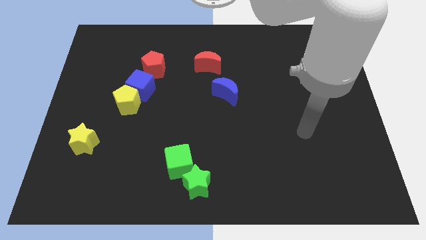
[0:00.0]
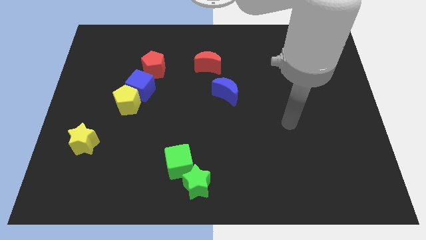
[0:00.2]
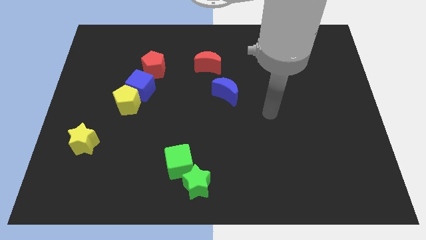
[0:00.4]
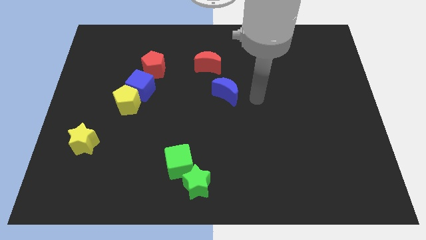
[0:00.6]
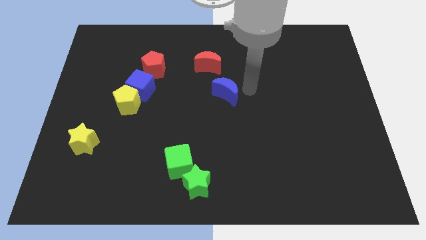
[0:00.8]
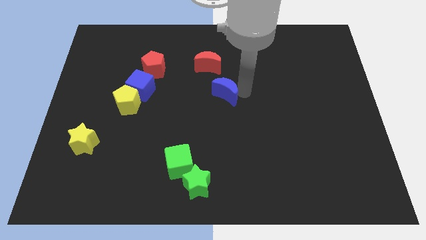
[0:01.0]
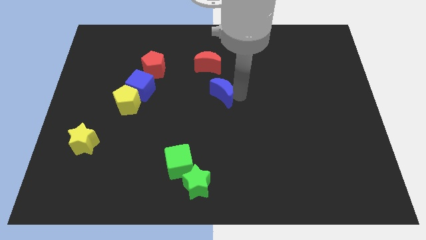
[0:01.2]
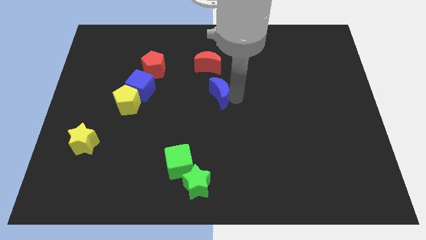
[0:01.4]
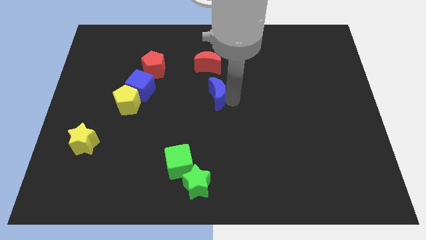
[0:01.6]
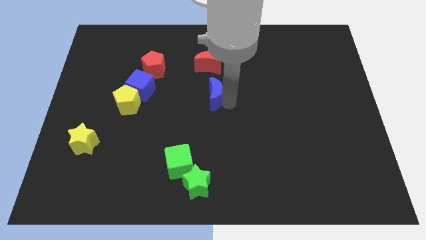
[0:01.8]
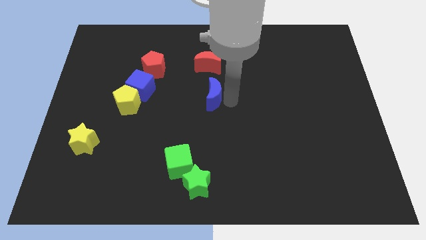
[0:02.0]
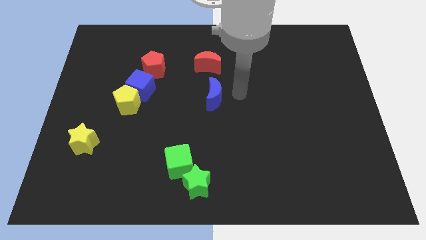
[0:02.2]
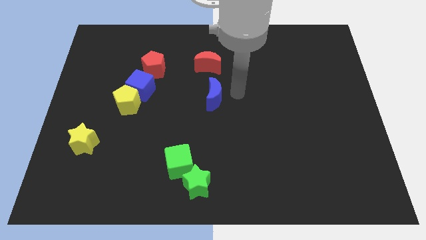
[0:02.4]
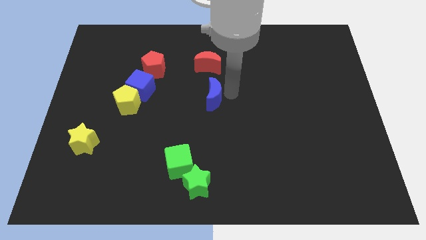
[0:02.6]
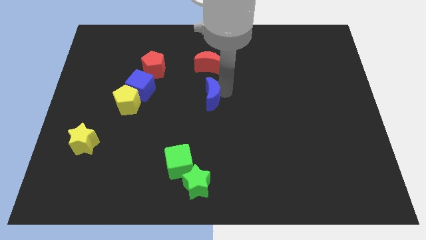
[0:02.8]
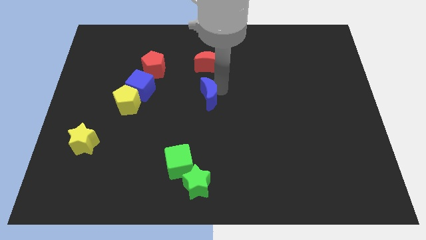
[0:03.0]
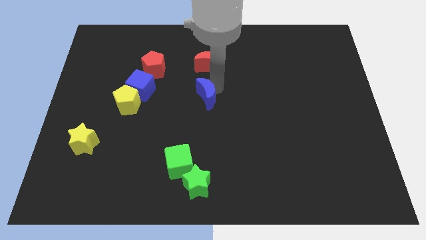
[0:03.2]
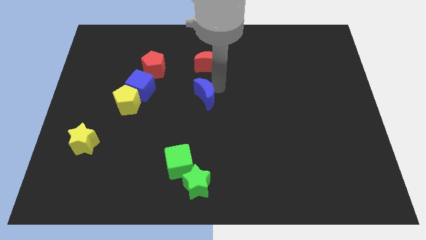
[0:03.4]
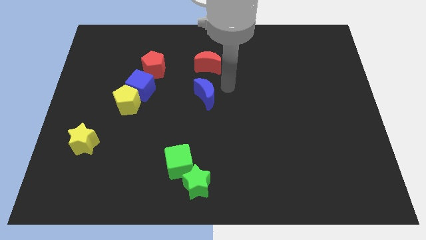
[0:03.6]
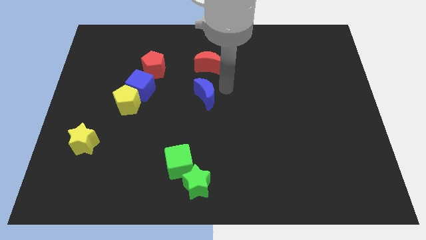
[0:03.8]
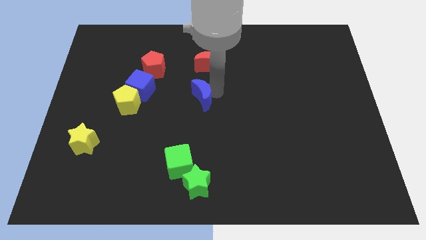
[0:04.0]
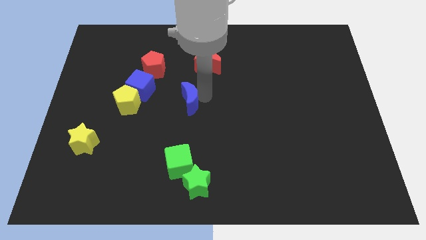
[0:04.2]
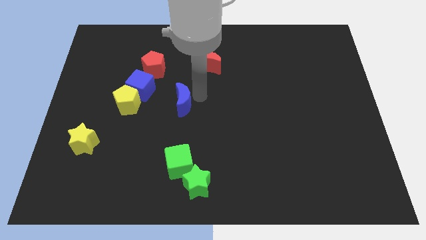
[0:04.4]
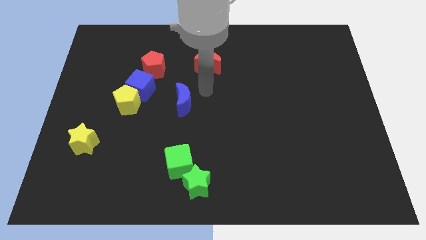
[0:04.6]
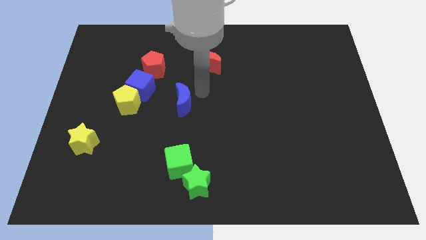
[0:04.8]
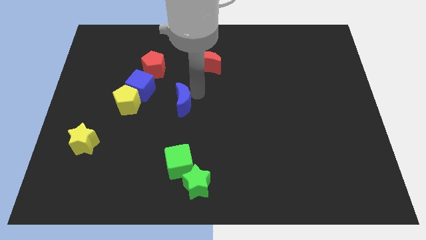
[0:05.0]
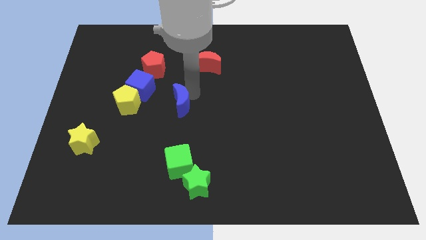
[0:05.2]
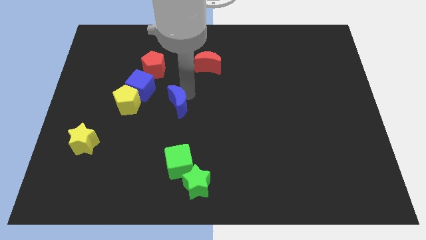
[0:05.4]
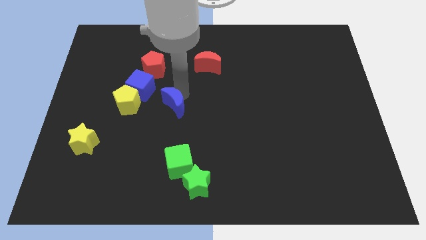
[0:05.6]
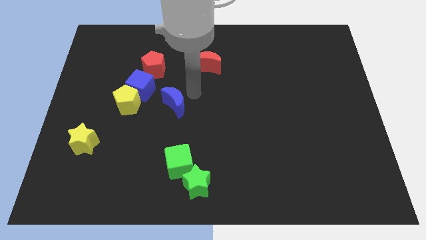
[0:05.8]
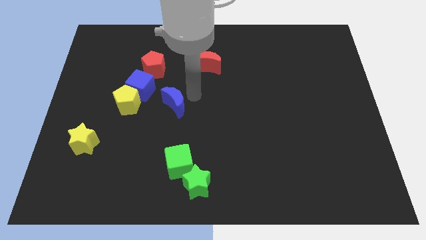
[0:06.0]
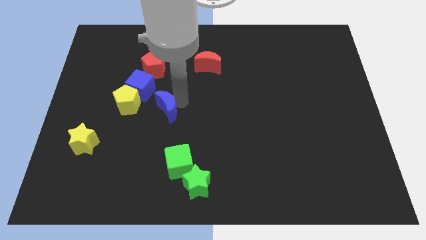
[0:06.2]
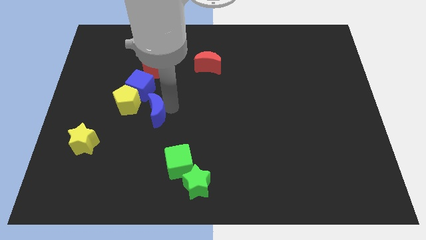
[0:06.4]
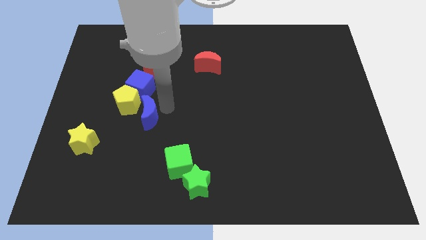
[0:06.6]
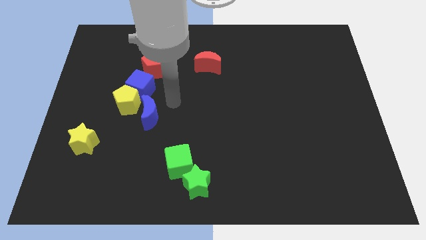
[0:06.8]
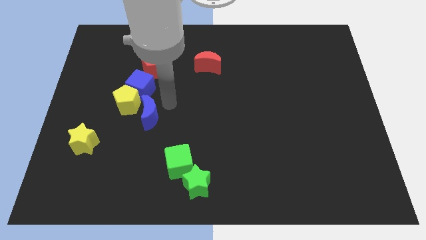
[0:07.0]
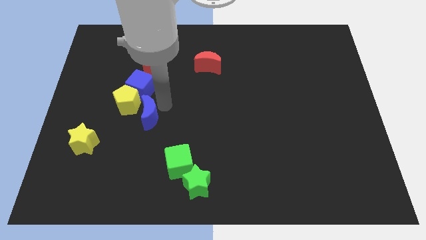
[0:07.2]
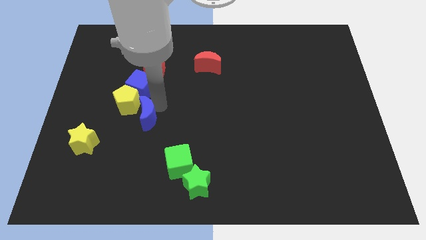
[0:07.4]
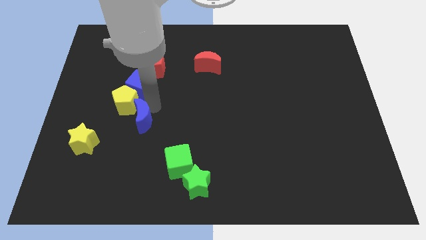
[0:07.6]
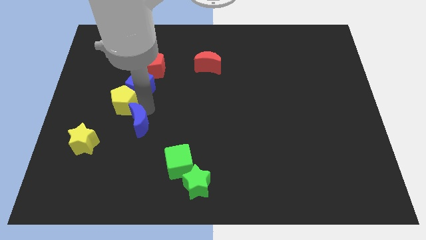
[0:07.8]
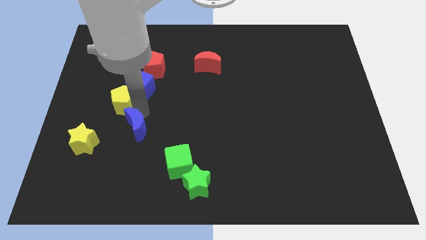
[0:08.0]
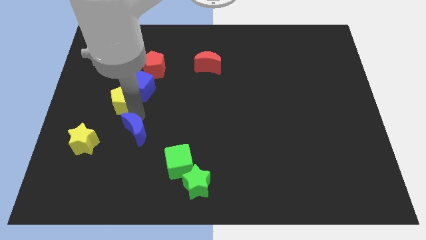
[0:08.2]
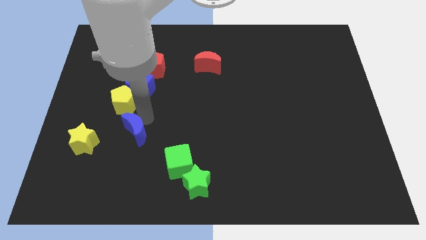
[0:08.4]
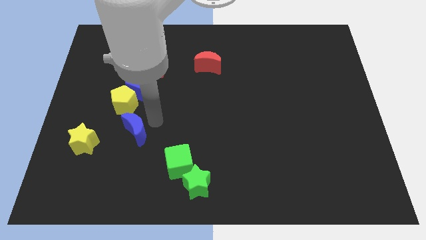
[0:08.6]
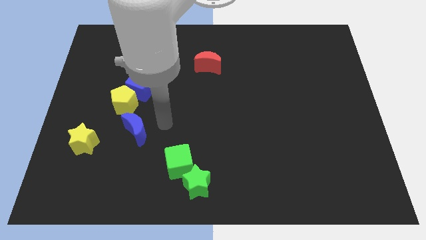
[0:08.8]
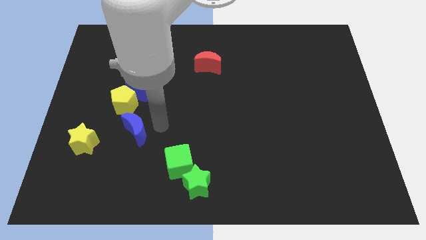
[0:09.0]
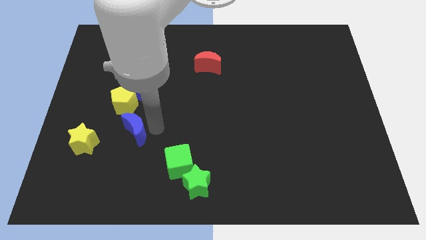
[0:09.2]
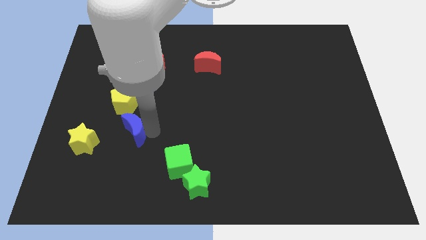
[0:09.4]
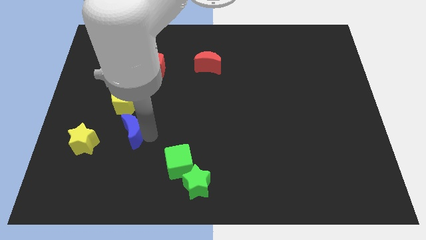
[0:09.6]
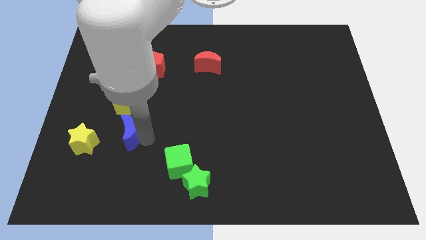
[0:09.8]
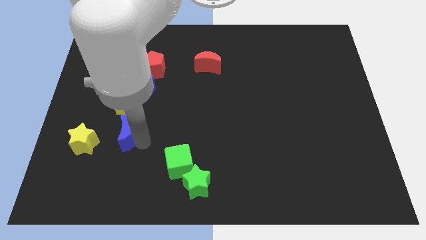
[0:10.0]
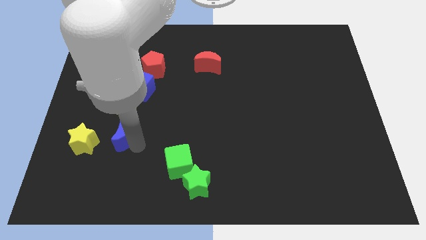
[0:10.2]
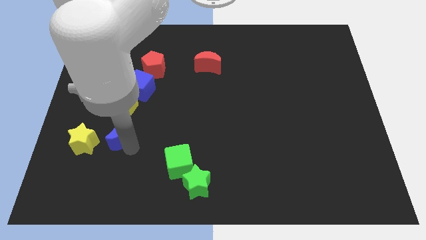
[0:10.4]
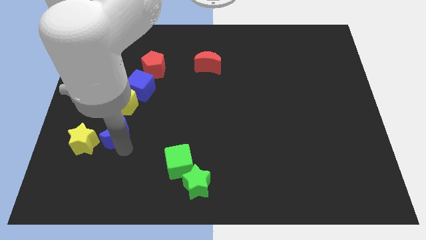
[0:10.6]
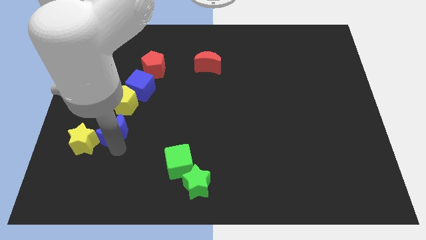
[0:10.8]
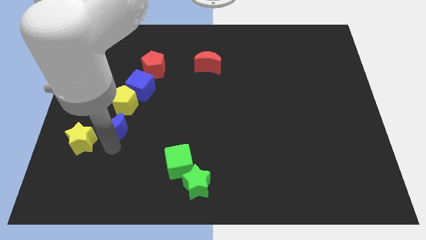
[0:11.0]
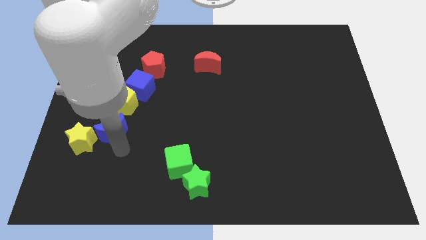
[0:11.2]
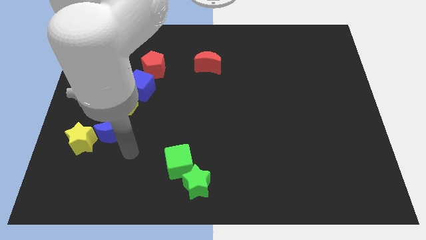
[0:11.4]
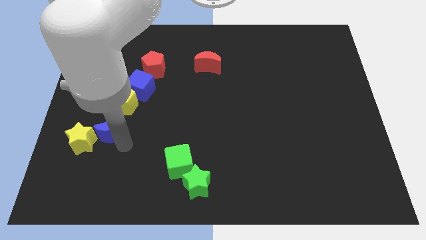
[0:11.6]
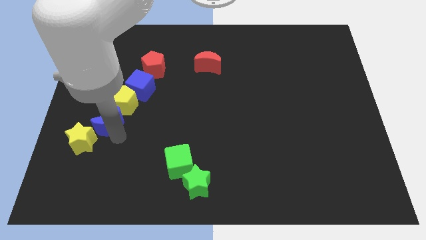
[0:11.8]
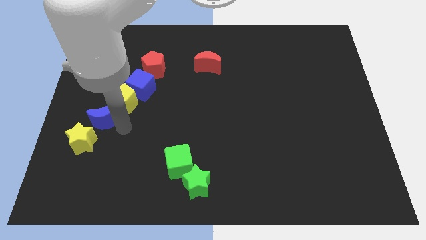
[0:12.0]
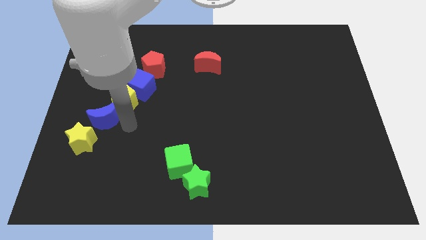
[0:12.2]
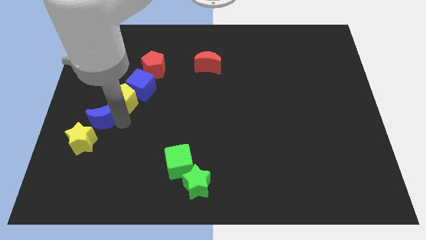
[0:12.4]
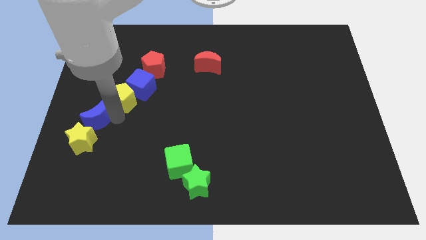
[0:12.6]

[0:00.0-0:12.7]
push the blue moon to the left side

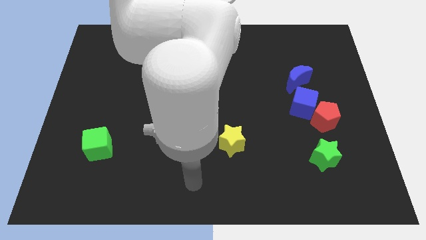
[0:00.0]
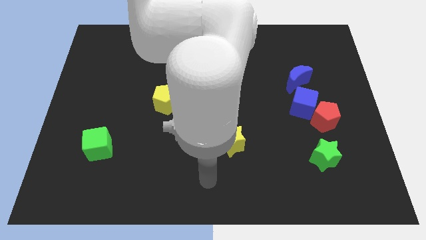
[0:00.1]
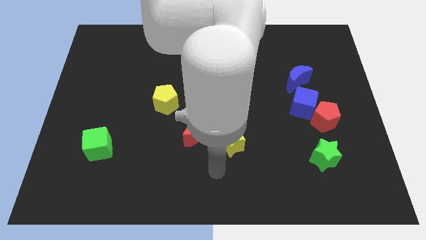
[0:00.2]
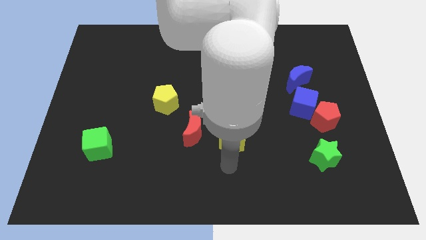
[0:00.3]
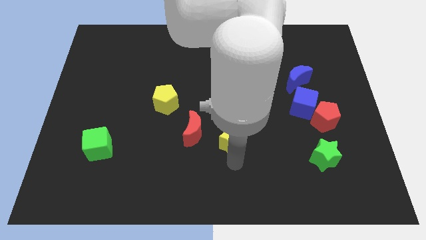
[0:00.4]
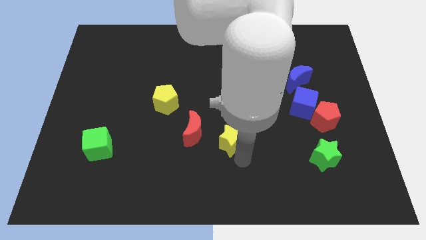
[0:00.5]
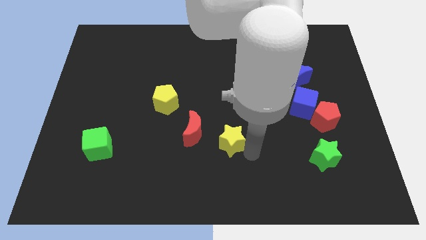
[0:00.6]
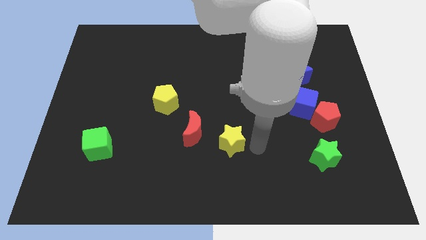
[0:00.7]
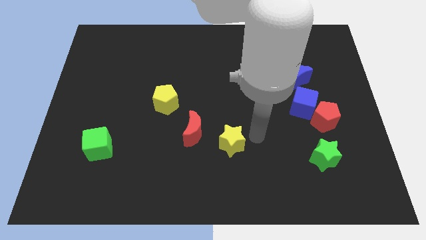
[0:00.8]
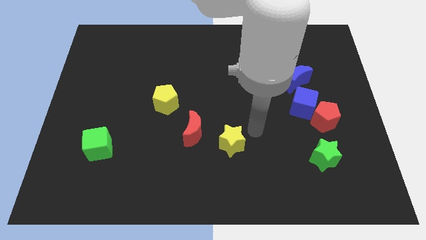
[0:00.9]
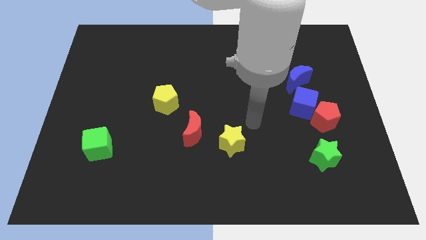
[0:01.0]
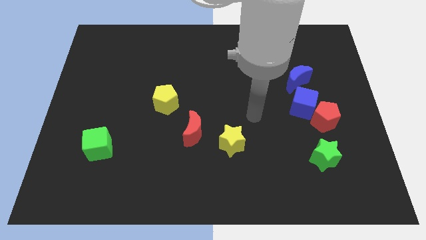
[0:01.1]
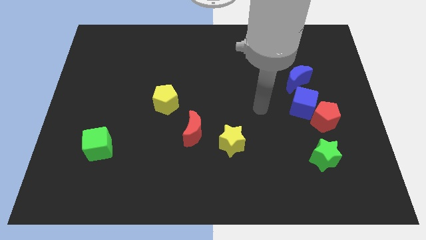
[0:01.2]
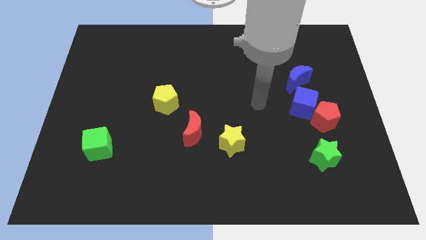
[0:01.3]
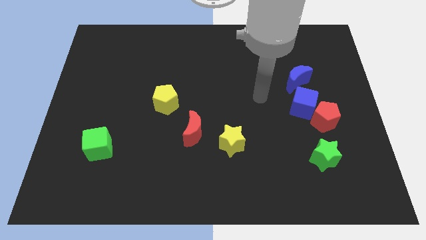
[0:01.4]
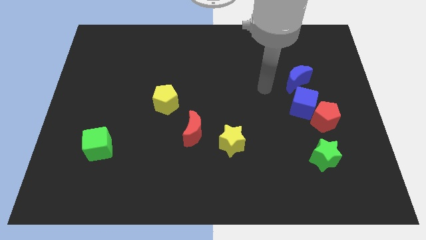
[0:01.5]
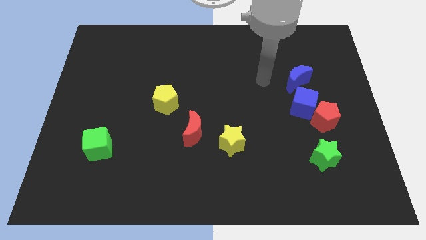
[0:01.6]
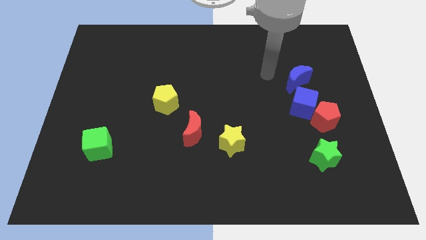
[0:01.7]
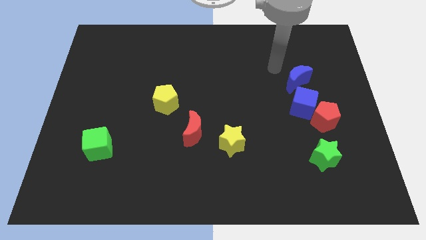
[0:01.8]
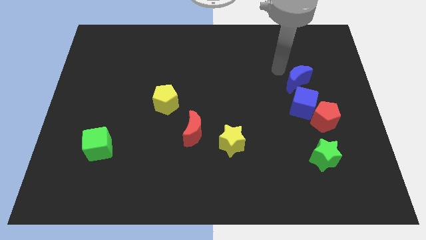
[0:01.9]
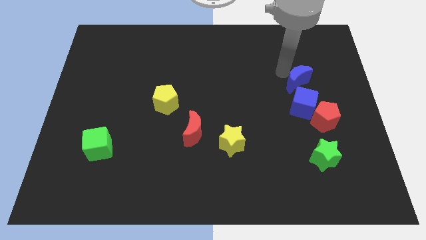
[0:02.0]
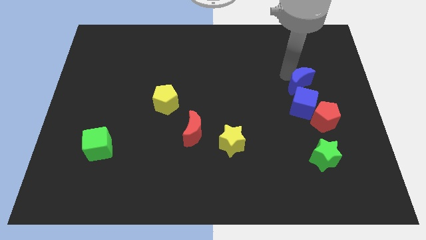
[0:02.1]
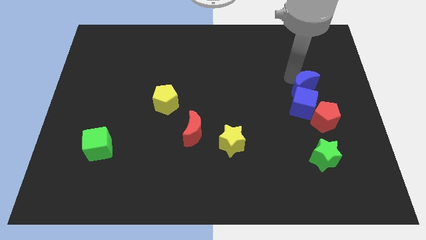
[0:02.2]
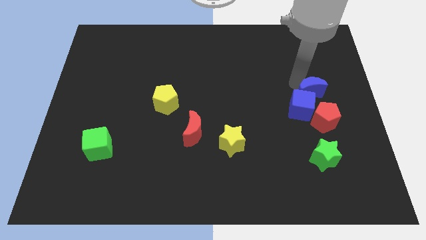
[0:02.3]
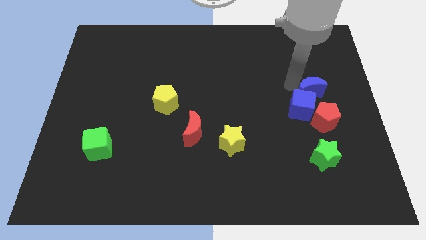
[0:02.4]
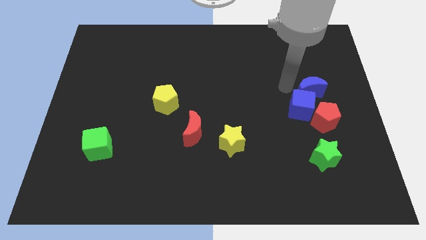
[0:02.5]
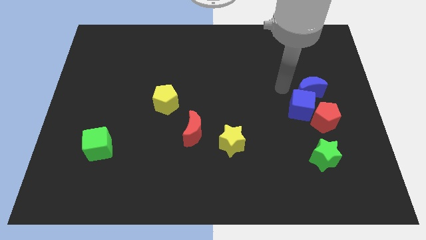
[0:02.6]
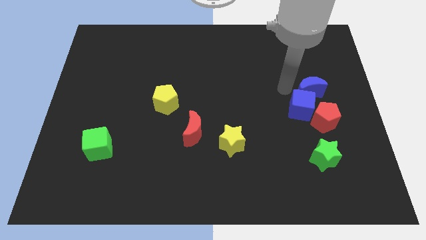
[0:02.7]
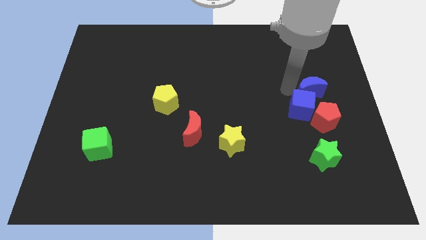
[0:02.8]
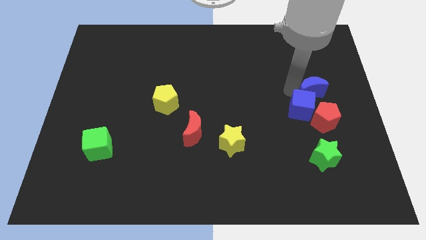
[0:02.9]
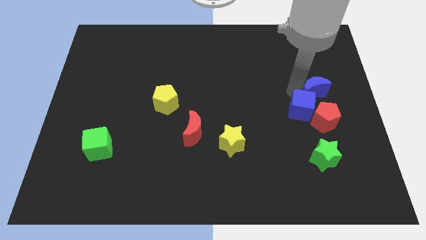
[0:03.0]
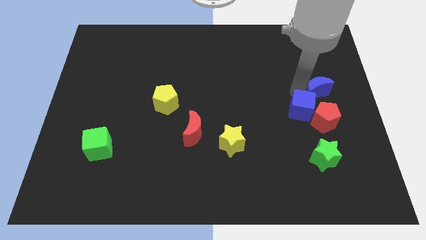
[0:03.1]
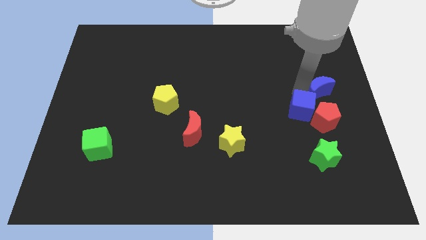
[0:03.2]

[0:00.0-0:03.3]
put the blue moon to the right side of the board
